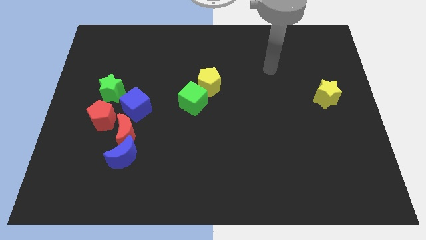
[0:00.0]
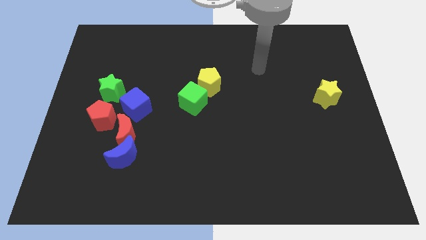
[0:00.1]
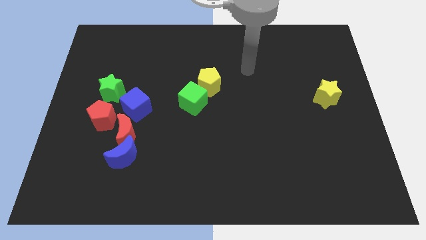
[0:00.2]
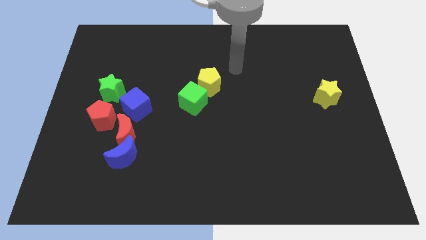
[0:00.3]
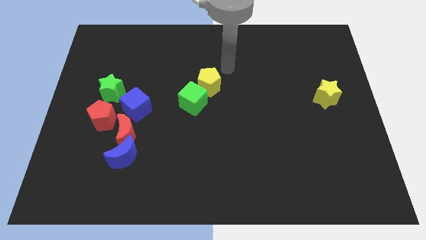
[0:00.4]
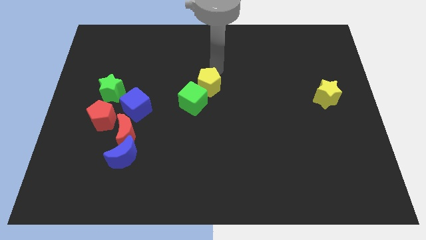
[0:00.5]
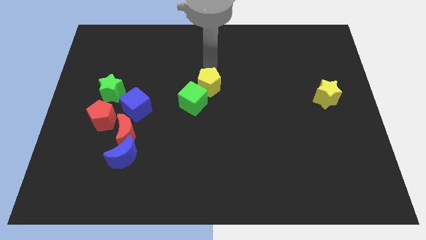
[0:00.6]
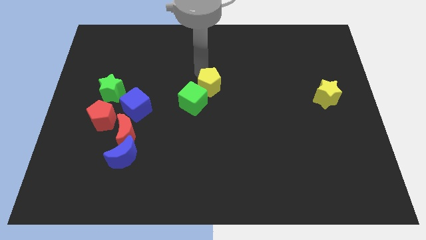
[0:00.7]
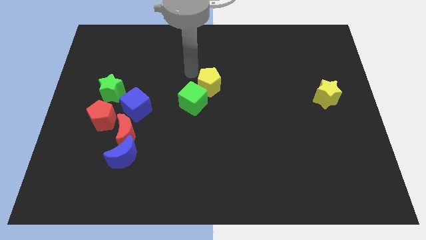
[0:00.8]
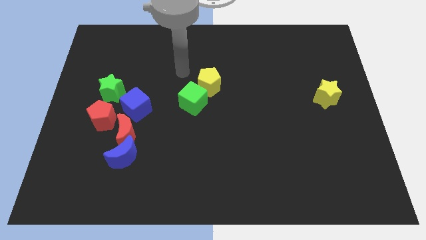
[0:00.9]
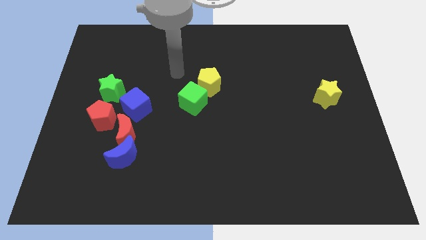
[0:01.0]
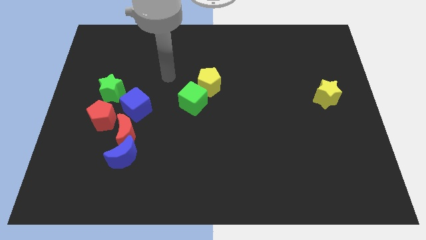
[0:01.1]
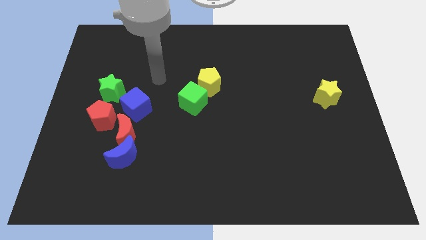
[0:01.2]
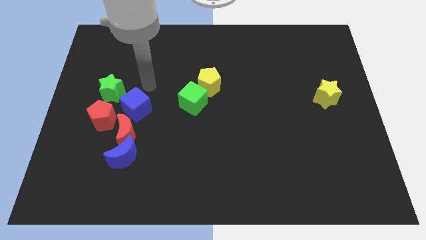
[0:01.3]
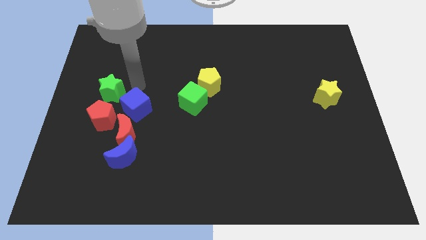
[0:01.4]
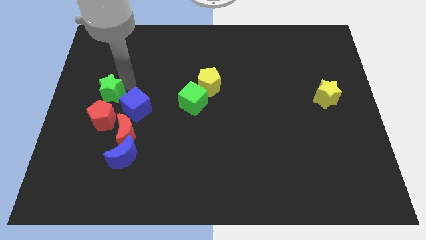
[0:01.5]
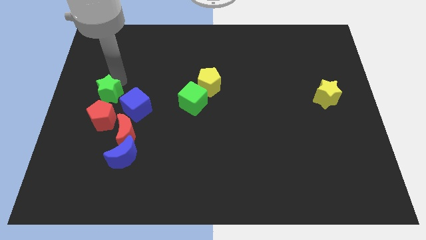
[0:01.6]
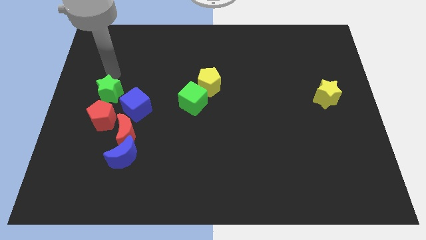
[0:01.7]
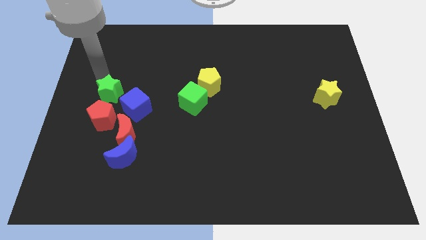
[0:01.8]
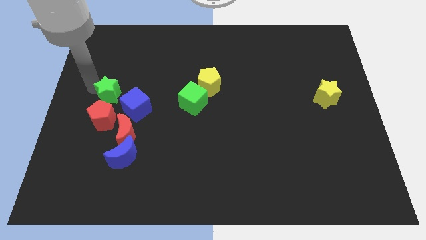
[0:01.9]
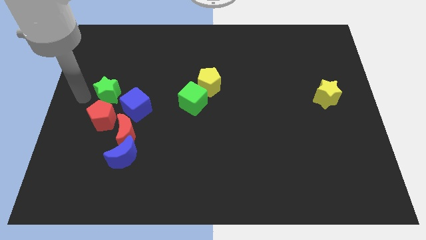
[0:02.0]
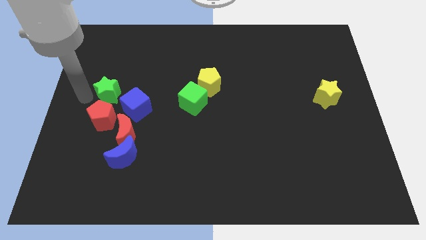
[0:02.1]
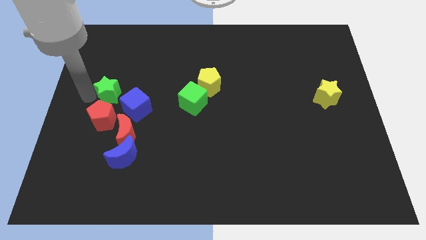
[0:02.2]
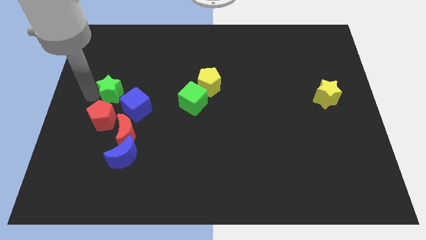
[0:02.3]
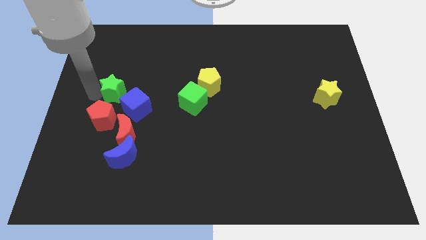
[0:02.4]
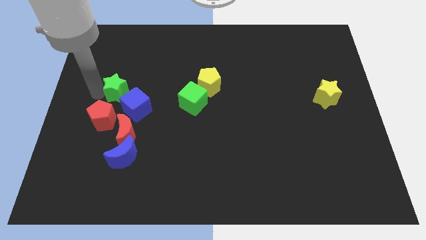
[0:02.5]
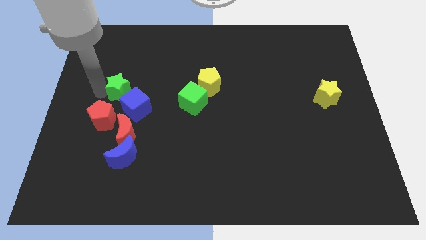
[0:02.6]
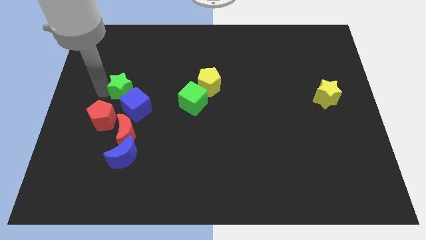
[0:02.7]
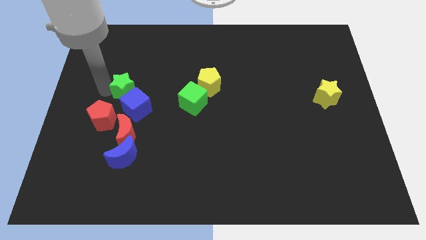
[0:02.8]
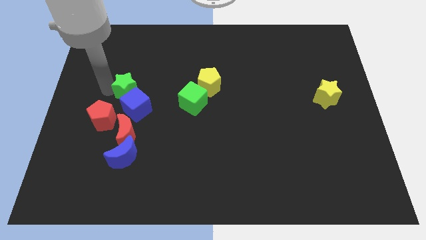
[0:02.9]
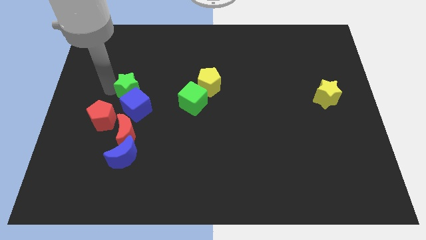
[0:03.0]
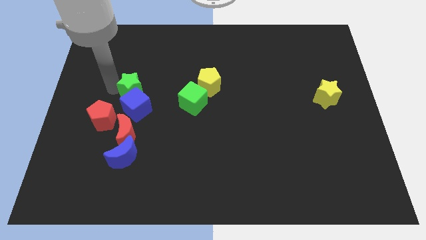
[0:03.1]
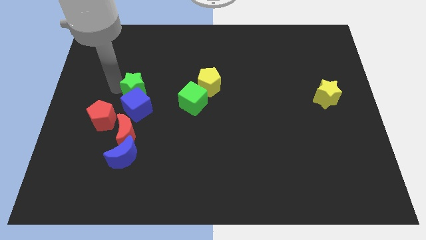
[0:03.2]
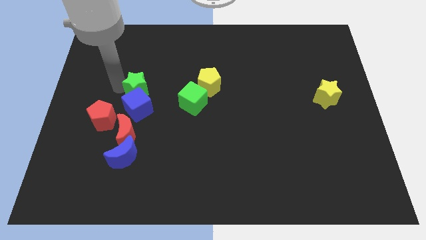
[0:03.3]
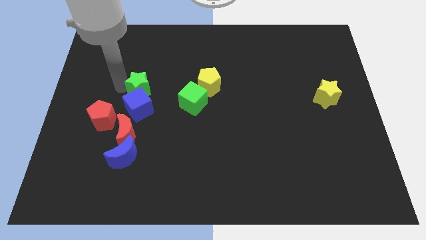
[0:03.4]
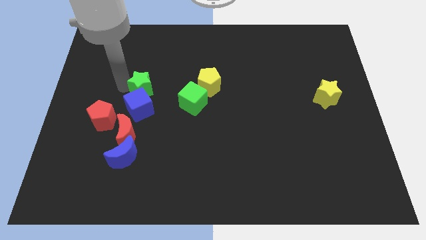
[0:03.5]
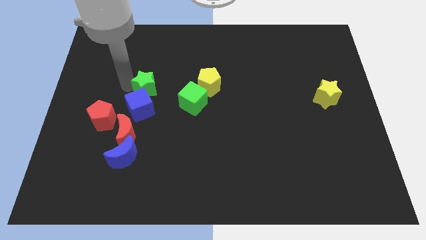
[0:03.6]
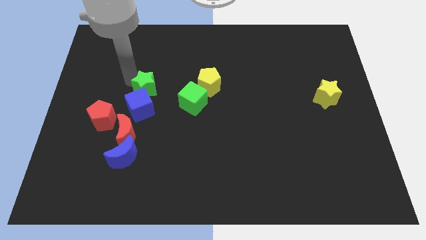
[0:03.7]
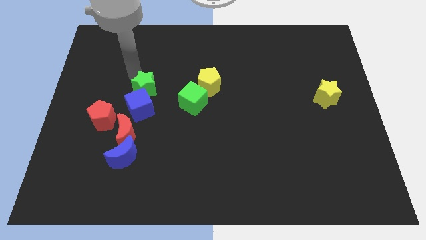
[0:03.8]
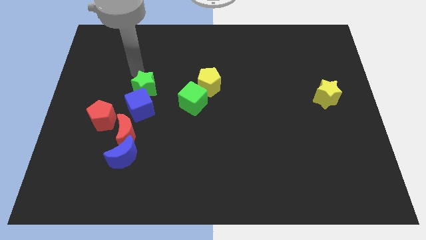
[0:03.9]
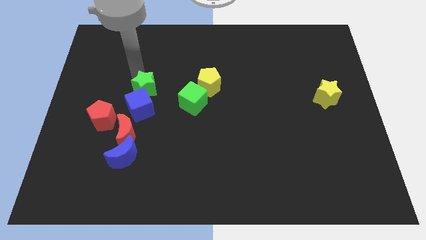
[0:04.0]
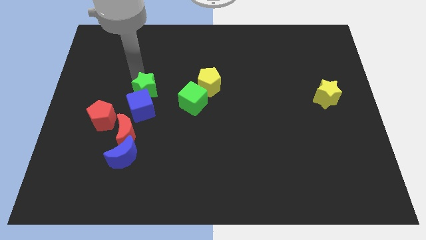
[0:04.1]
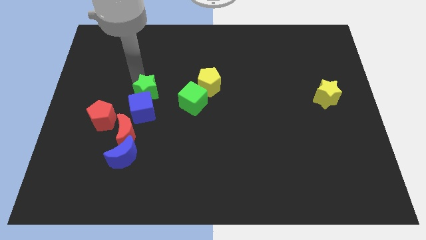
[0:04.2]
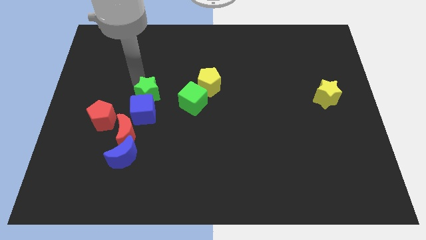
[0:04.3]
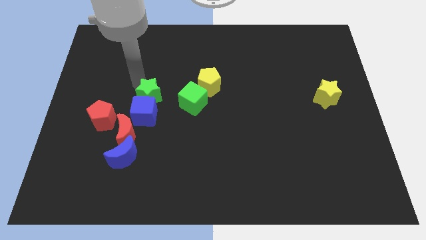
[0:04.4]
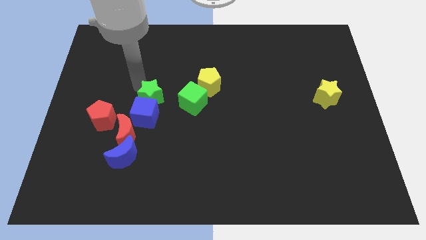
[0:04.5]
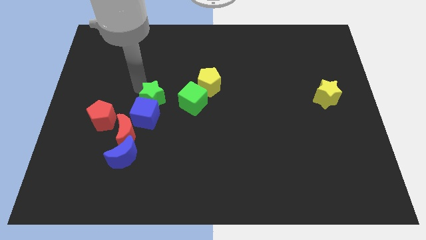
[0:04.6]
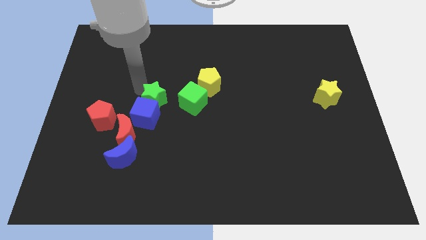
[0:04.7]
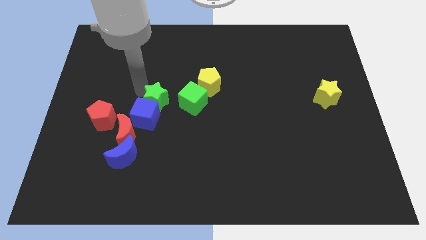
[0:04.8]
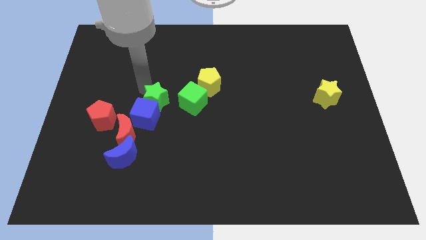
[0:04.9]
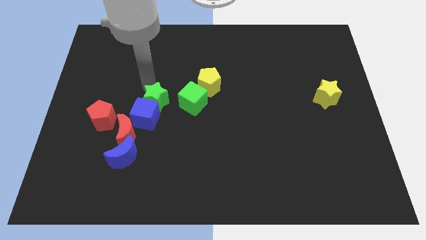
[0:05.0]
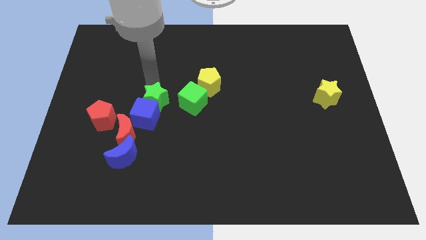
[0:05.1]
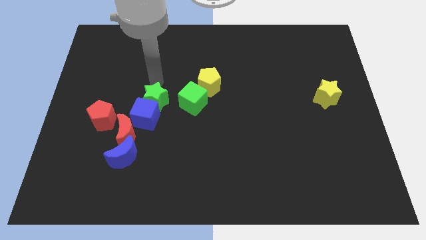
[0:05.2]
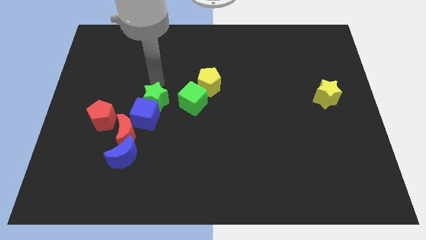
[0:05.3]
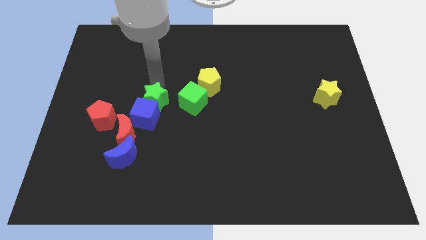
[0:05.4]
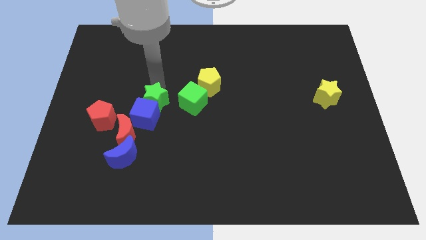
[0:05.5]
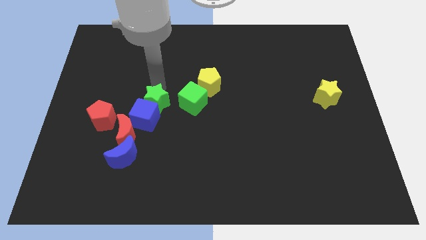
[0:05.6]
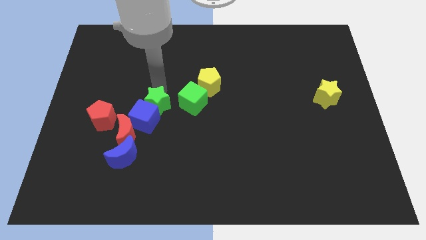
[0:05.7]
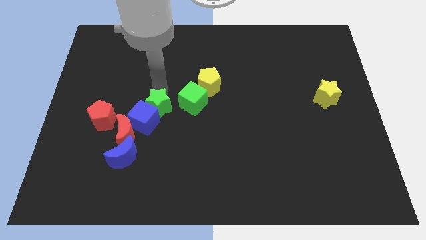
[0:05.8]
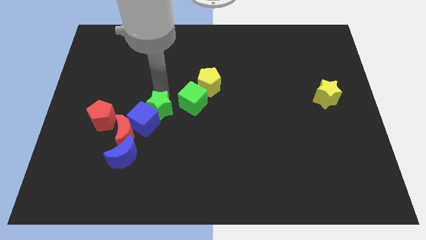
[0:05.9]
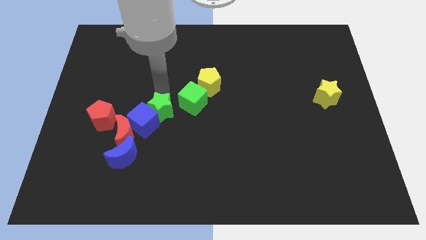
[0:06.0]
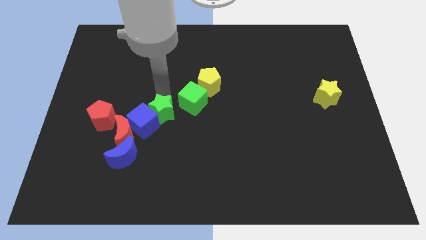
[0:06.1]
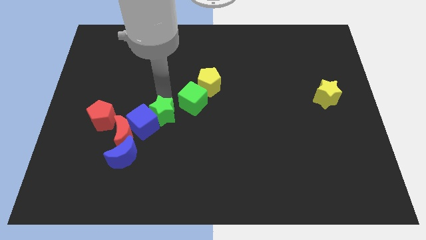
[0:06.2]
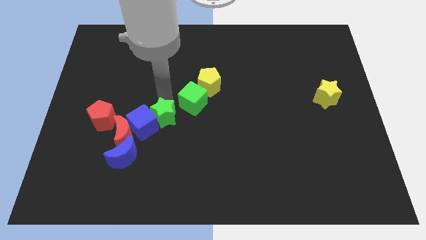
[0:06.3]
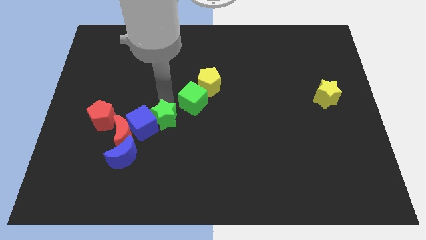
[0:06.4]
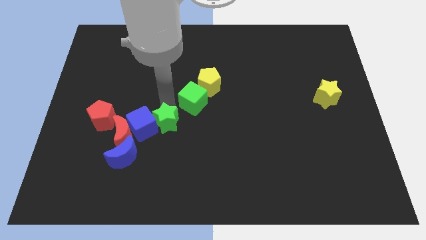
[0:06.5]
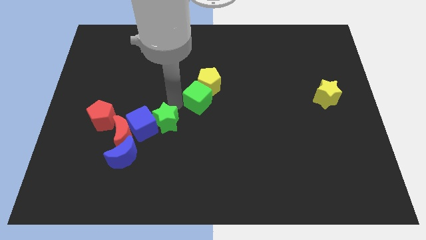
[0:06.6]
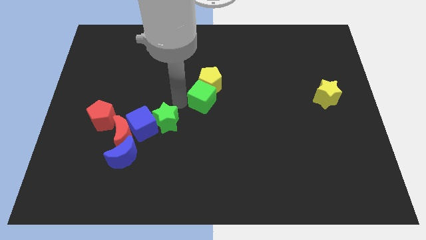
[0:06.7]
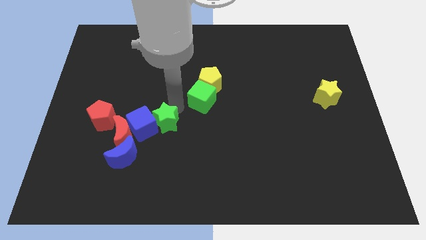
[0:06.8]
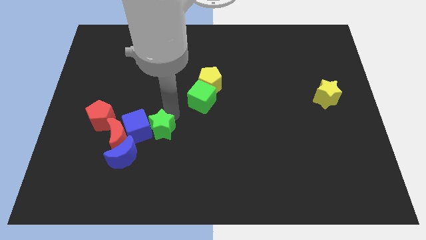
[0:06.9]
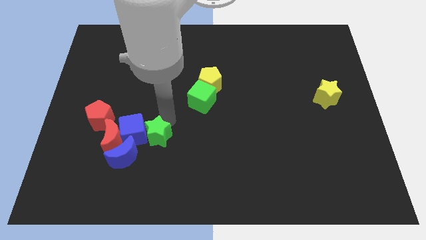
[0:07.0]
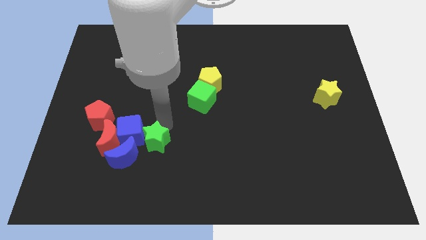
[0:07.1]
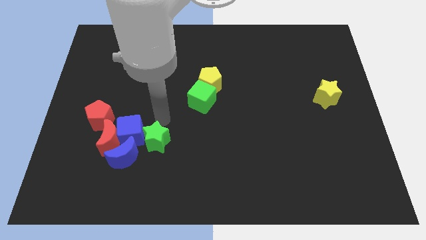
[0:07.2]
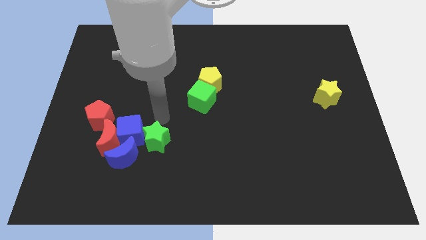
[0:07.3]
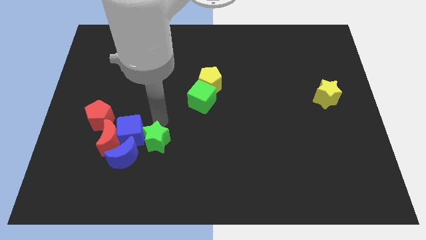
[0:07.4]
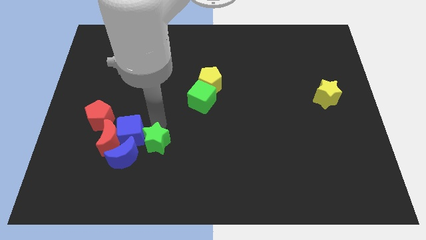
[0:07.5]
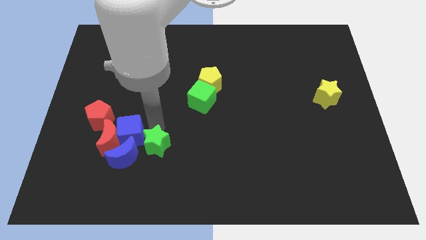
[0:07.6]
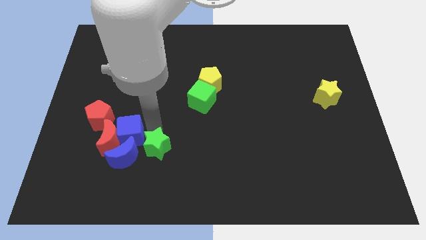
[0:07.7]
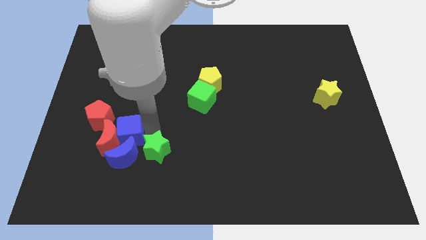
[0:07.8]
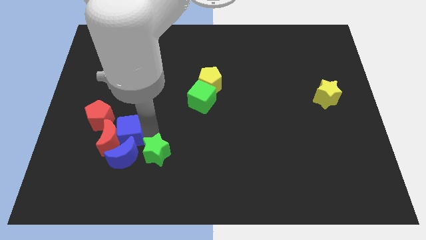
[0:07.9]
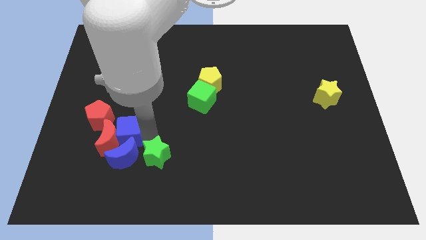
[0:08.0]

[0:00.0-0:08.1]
slide the green star diagonally down and to the right of the blue moon
